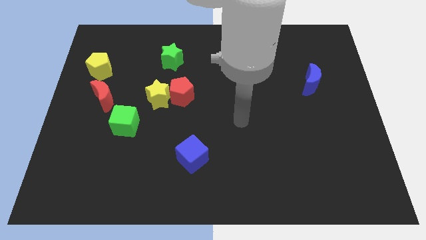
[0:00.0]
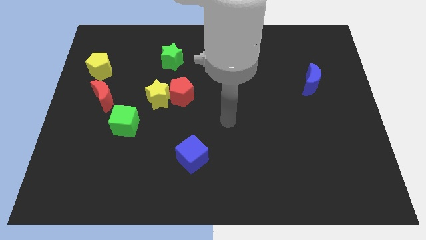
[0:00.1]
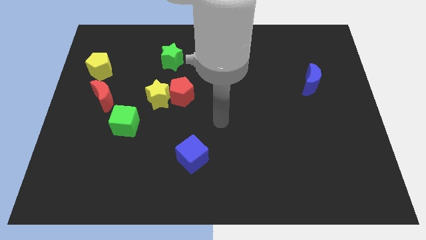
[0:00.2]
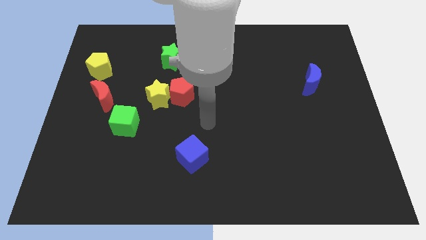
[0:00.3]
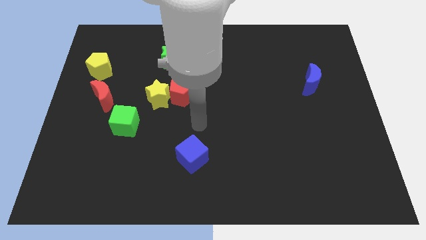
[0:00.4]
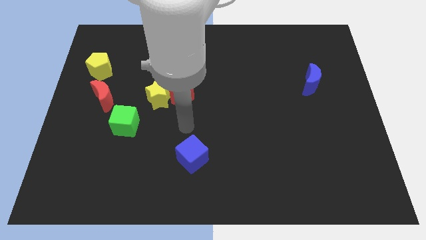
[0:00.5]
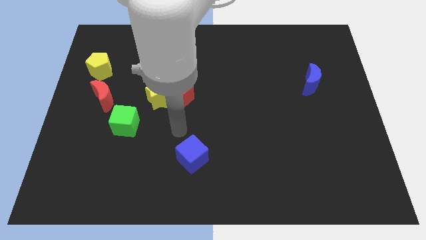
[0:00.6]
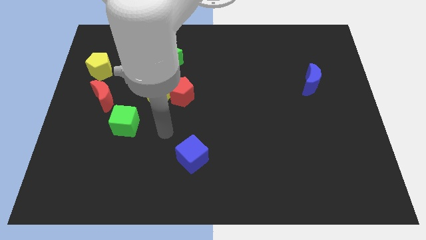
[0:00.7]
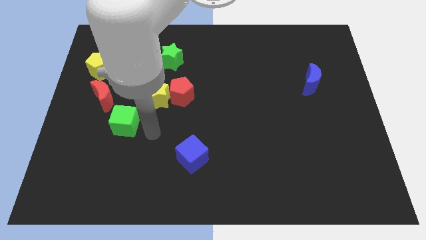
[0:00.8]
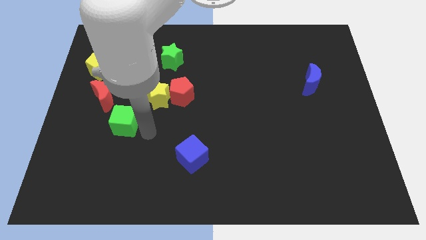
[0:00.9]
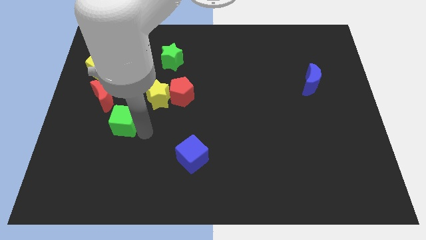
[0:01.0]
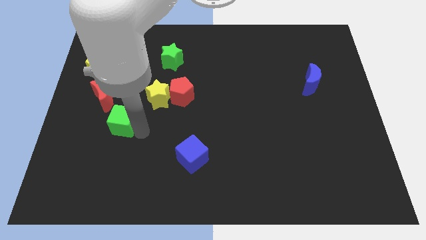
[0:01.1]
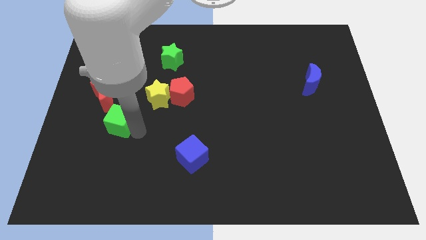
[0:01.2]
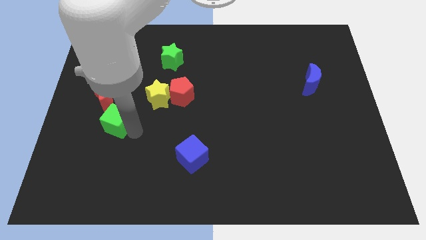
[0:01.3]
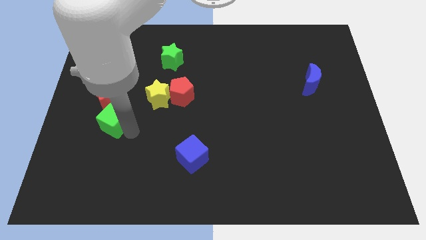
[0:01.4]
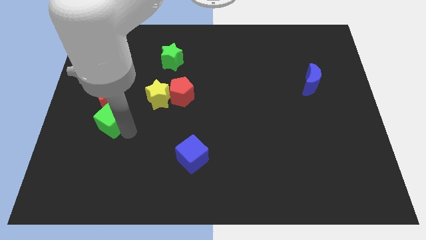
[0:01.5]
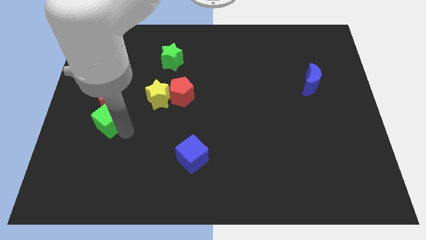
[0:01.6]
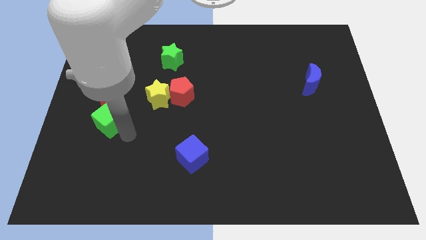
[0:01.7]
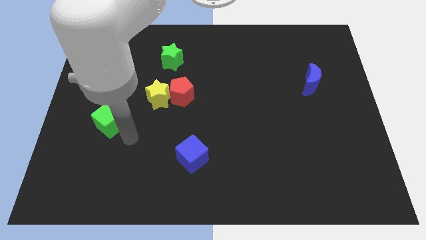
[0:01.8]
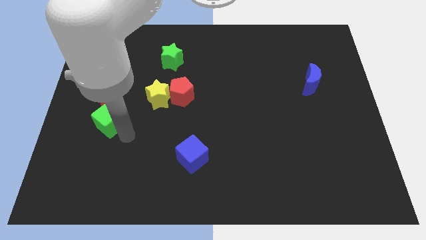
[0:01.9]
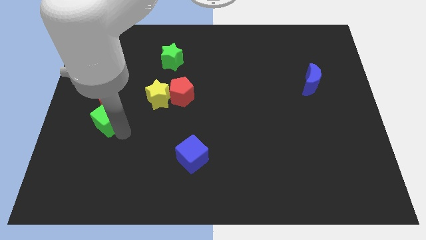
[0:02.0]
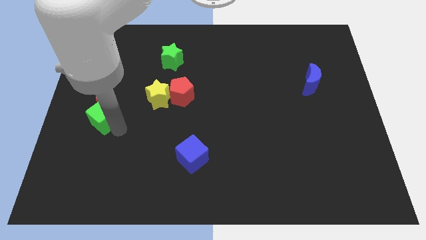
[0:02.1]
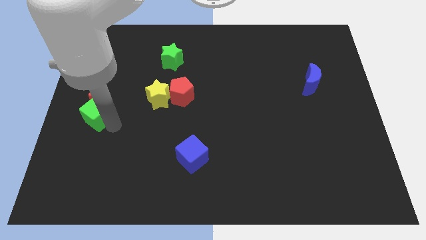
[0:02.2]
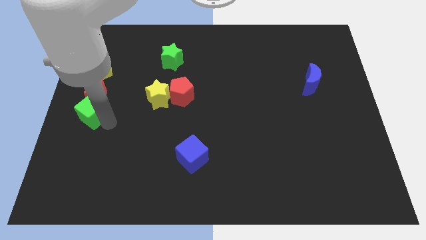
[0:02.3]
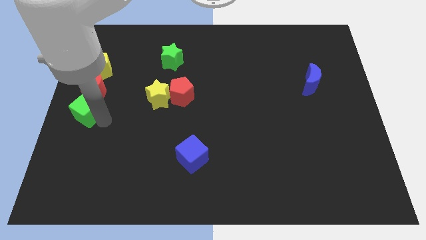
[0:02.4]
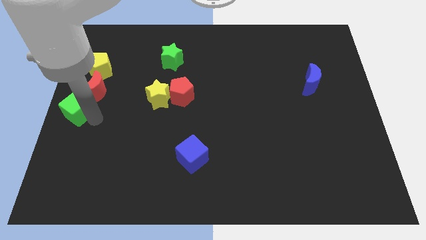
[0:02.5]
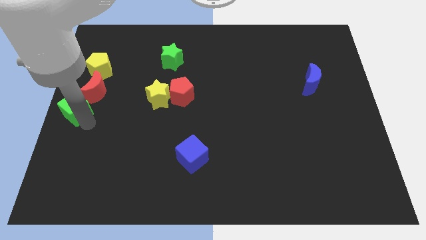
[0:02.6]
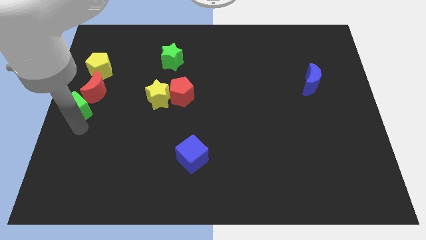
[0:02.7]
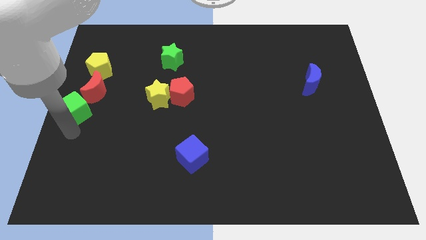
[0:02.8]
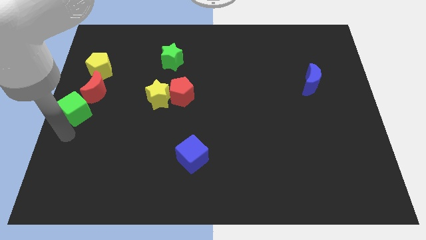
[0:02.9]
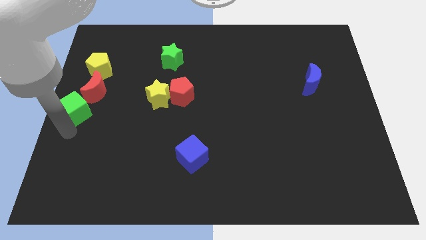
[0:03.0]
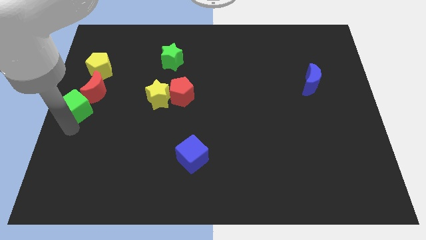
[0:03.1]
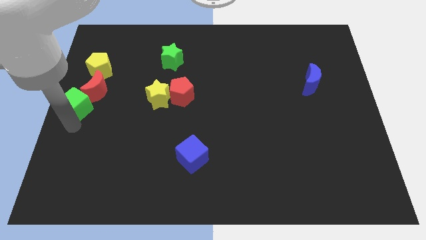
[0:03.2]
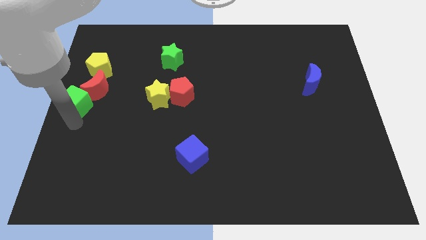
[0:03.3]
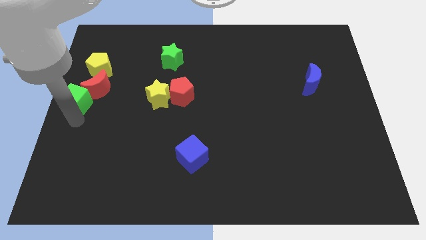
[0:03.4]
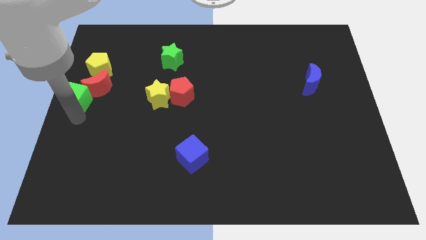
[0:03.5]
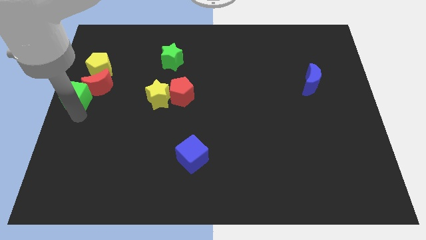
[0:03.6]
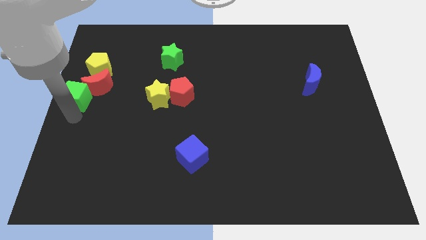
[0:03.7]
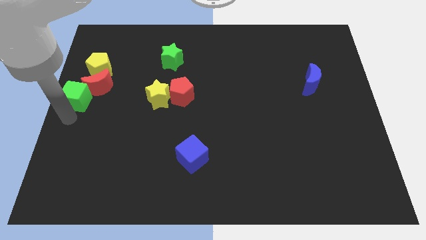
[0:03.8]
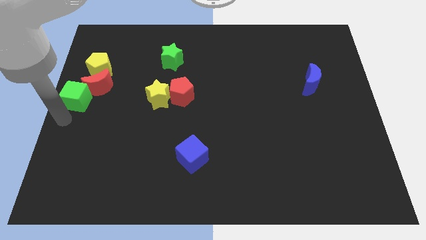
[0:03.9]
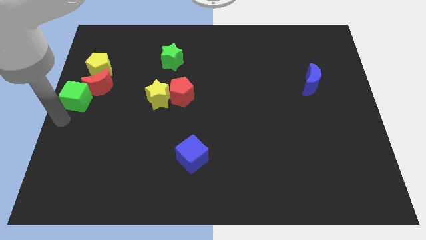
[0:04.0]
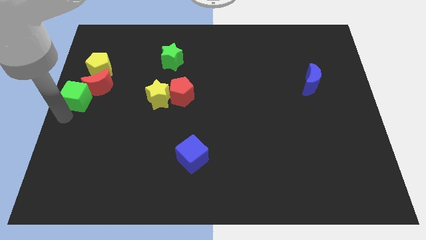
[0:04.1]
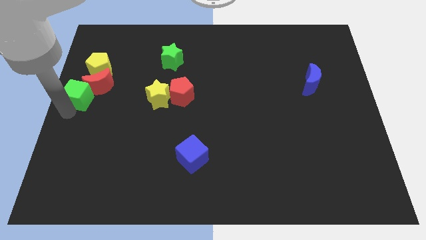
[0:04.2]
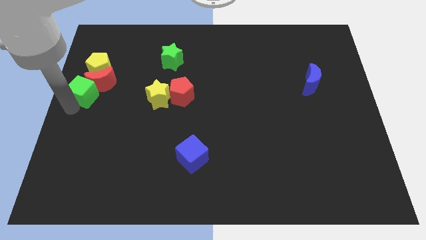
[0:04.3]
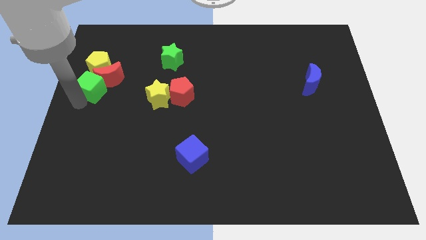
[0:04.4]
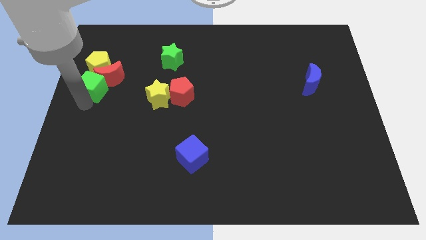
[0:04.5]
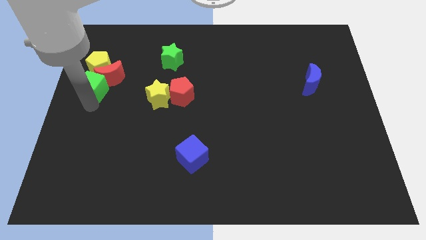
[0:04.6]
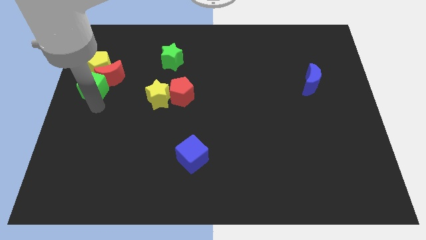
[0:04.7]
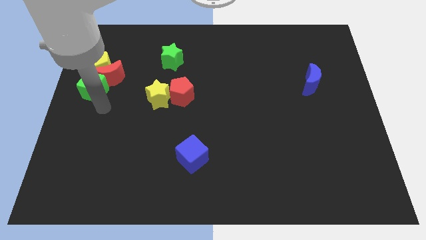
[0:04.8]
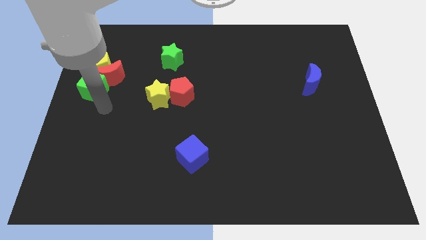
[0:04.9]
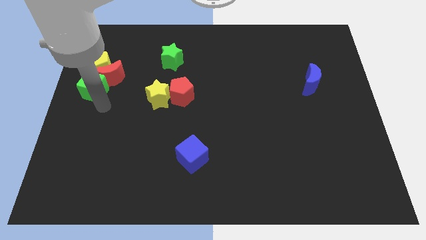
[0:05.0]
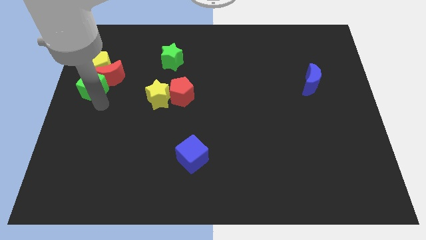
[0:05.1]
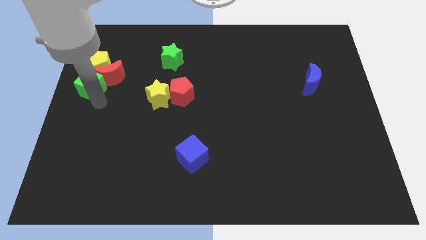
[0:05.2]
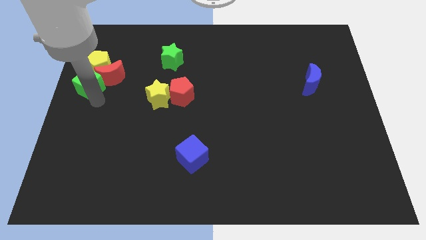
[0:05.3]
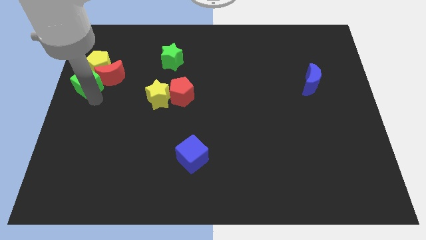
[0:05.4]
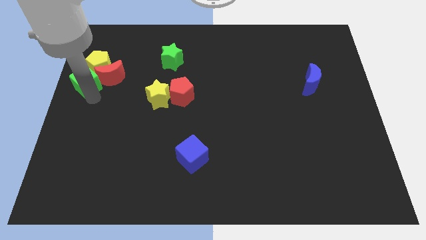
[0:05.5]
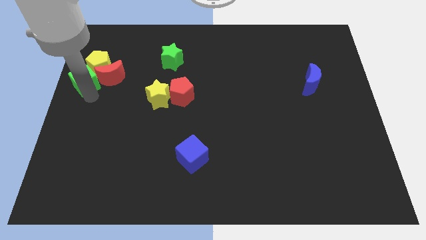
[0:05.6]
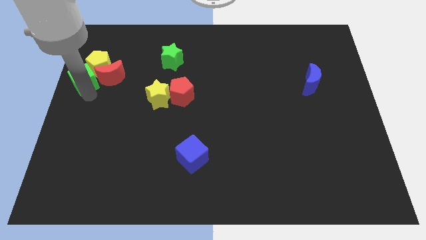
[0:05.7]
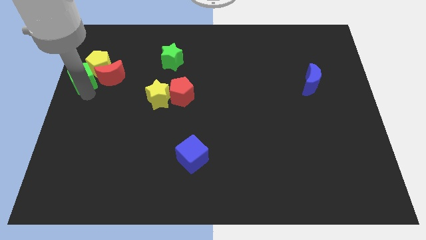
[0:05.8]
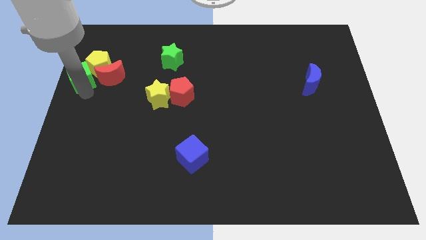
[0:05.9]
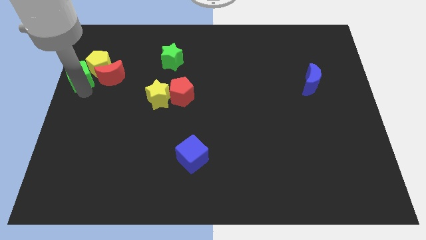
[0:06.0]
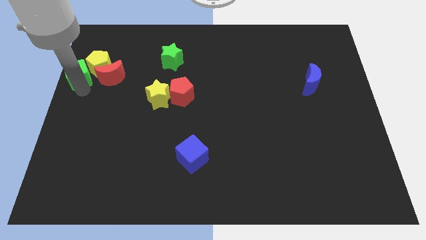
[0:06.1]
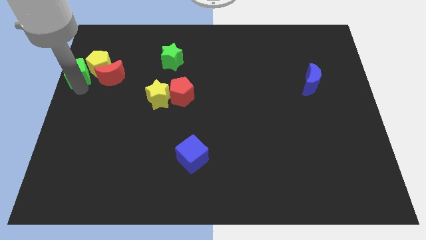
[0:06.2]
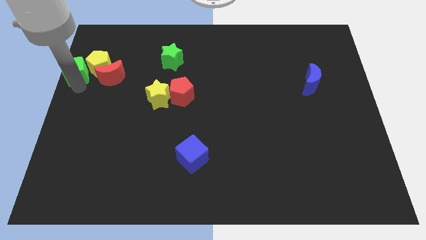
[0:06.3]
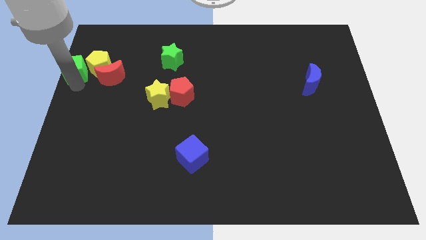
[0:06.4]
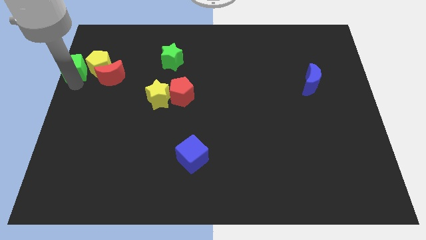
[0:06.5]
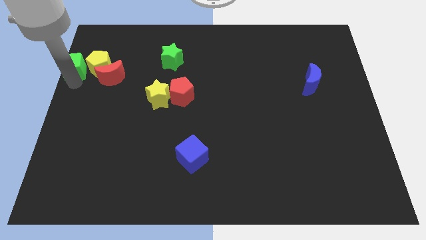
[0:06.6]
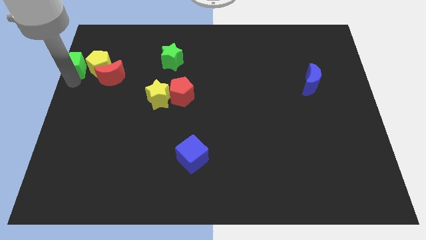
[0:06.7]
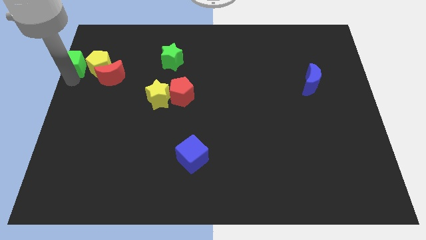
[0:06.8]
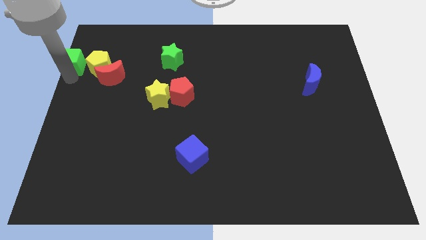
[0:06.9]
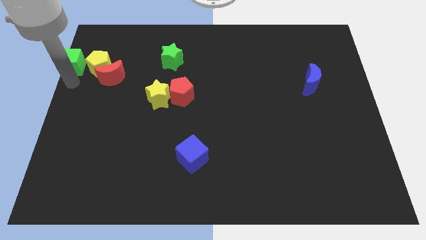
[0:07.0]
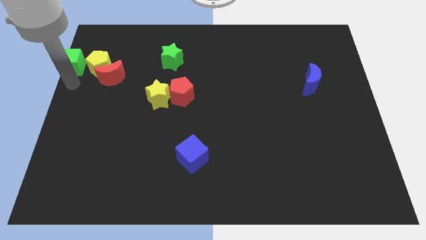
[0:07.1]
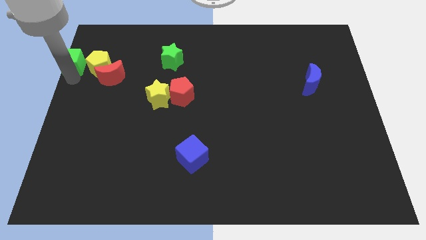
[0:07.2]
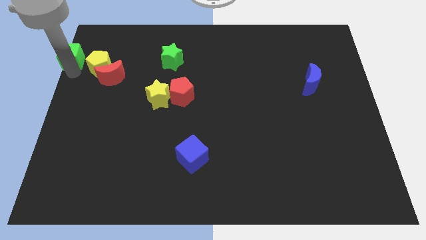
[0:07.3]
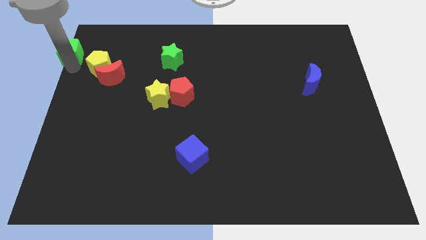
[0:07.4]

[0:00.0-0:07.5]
move the green cube to the top left corner
